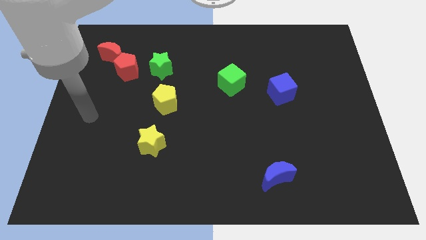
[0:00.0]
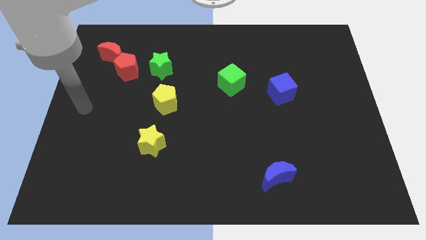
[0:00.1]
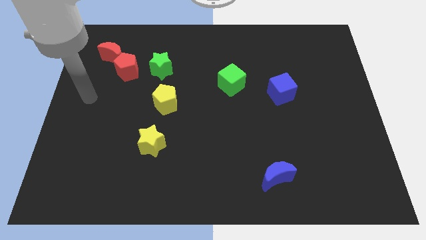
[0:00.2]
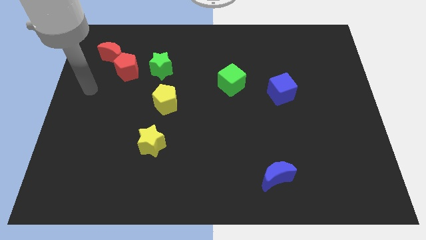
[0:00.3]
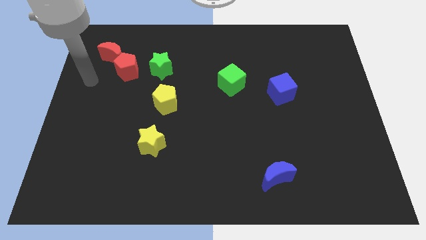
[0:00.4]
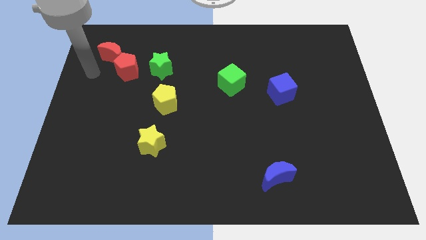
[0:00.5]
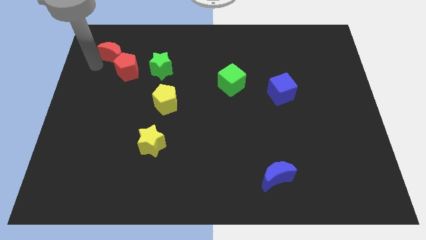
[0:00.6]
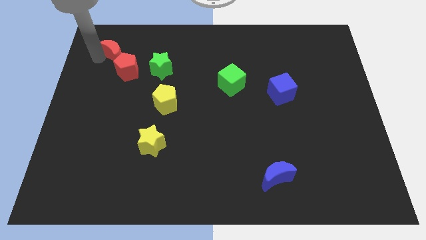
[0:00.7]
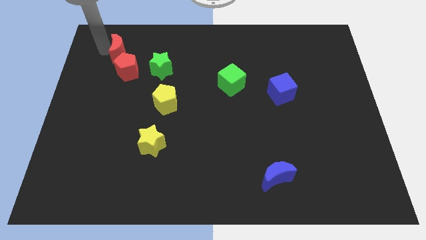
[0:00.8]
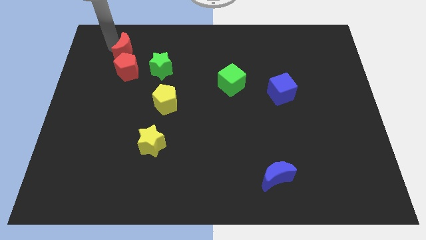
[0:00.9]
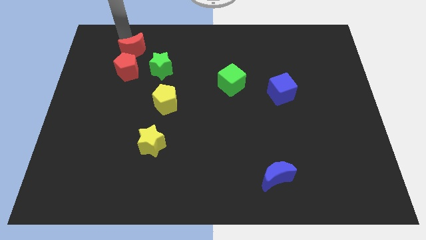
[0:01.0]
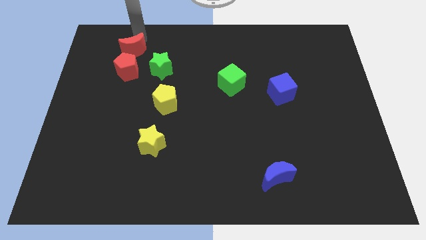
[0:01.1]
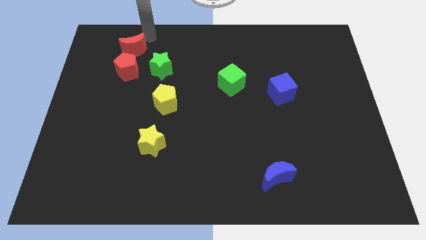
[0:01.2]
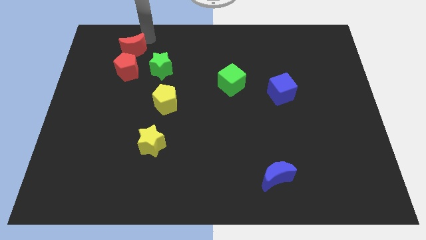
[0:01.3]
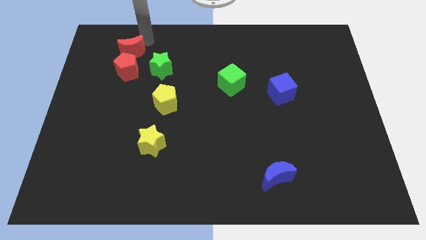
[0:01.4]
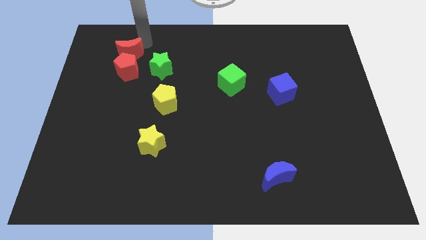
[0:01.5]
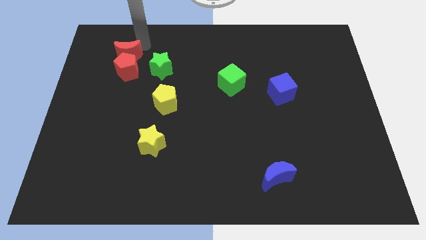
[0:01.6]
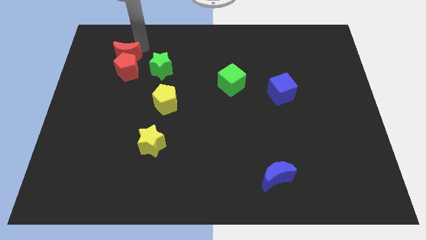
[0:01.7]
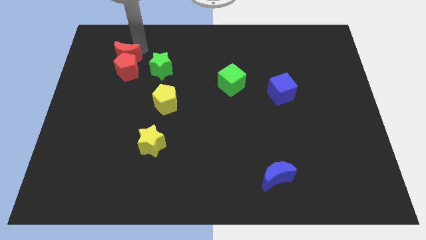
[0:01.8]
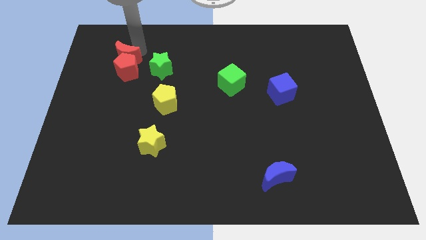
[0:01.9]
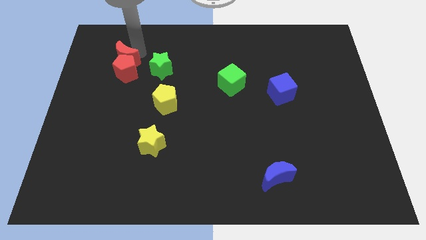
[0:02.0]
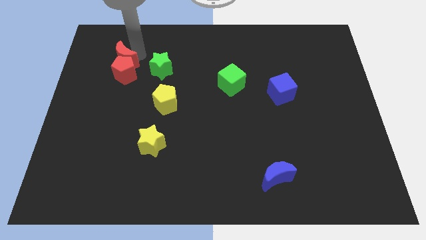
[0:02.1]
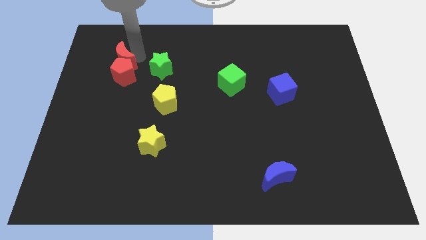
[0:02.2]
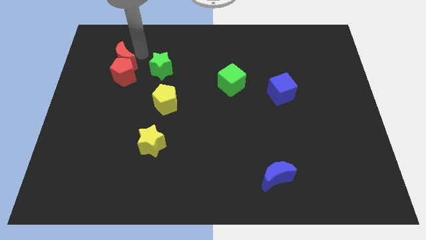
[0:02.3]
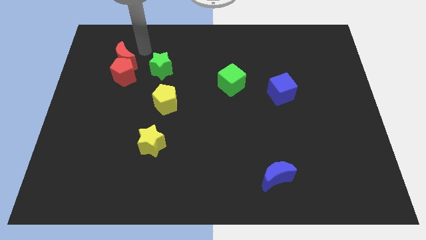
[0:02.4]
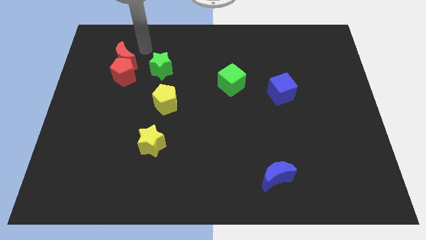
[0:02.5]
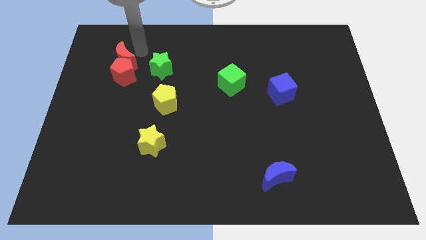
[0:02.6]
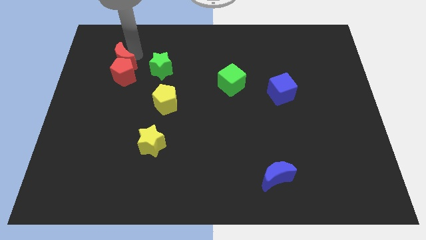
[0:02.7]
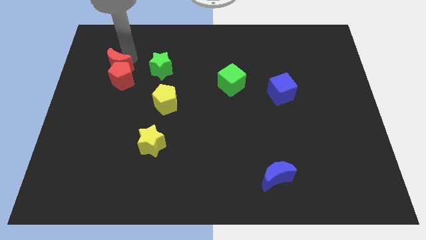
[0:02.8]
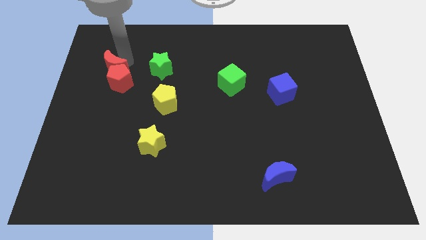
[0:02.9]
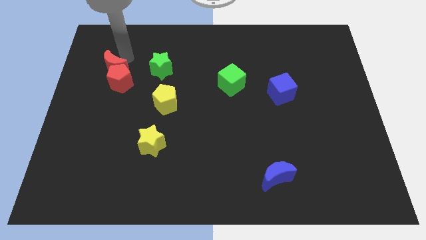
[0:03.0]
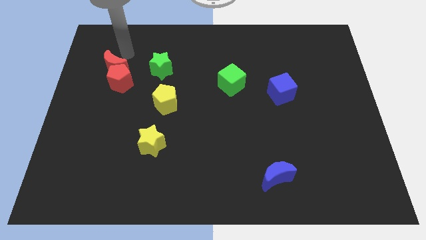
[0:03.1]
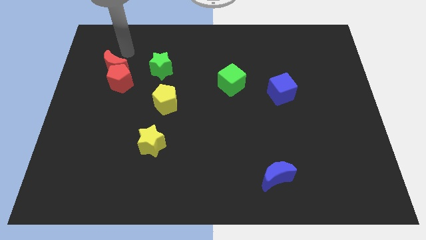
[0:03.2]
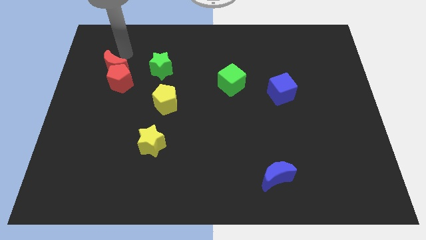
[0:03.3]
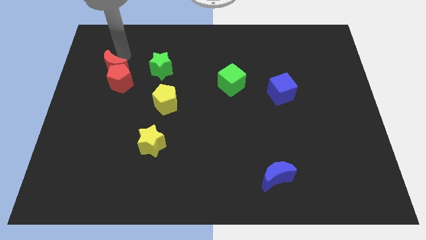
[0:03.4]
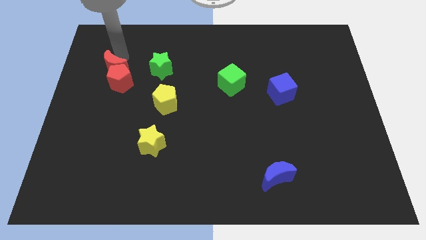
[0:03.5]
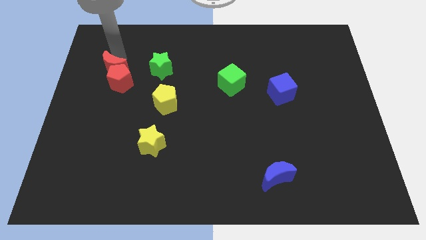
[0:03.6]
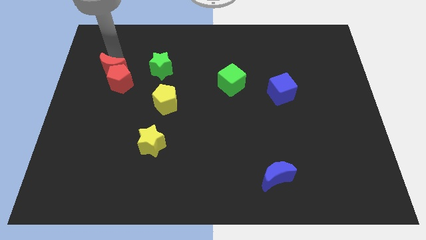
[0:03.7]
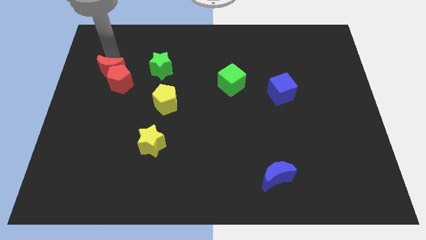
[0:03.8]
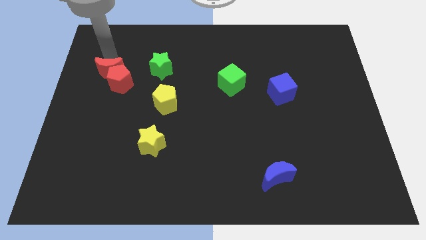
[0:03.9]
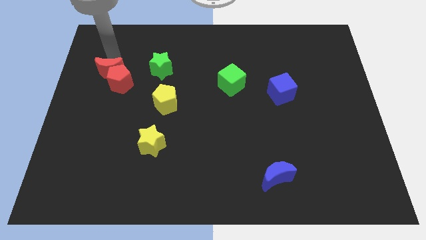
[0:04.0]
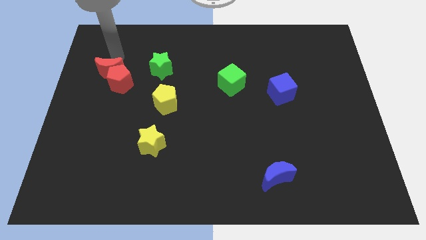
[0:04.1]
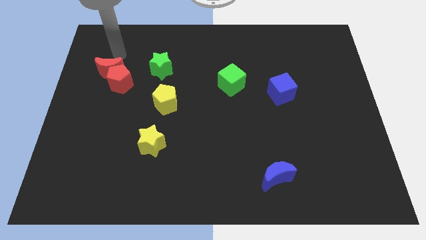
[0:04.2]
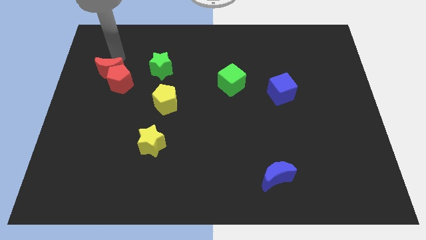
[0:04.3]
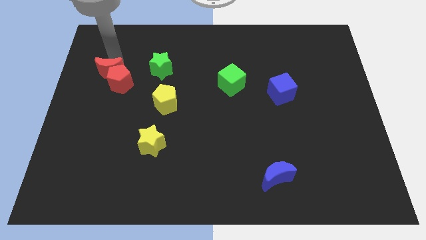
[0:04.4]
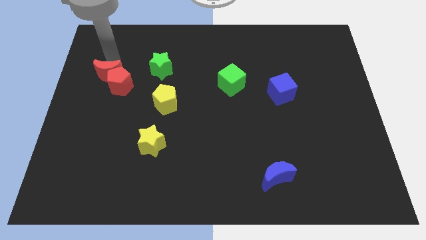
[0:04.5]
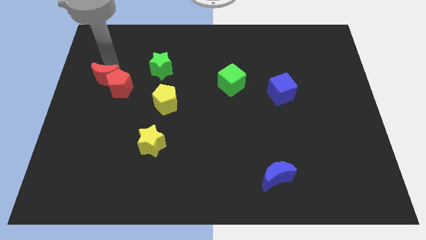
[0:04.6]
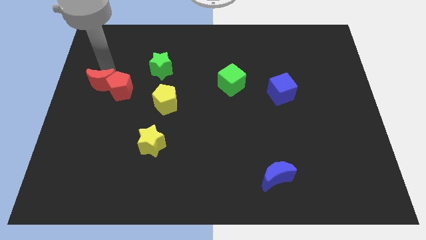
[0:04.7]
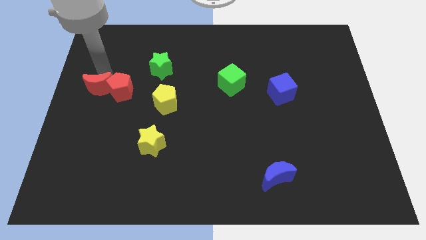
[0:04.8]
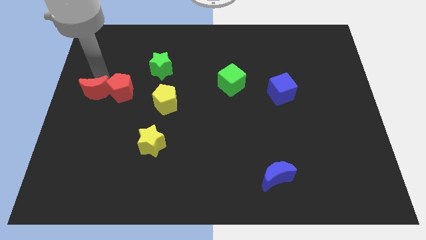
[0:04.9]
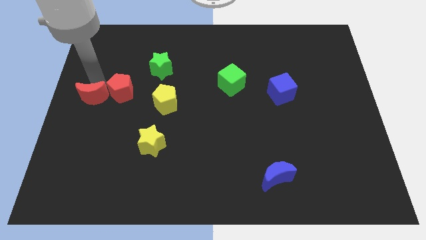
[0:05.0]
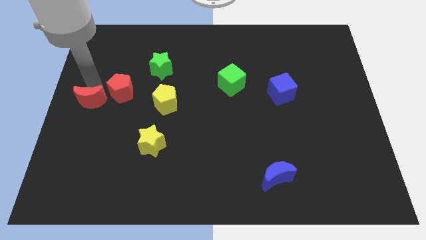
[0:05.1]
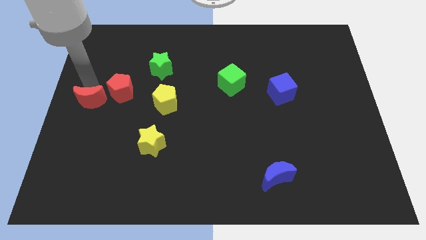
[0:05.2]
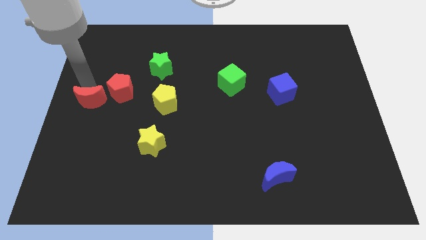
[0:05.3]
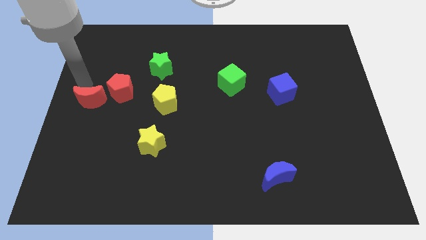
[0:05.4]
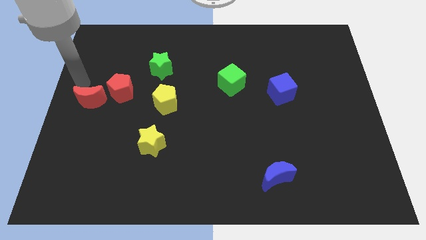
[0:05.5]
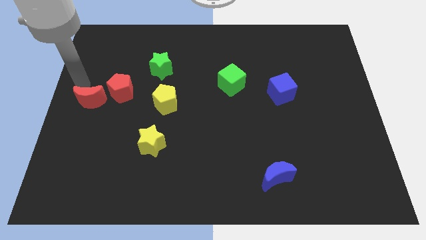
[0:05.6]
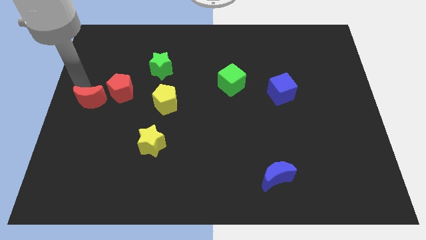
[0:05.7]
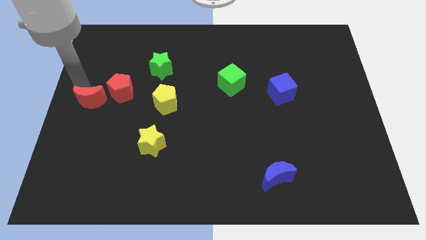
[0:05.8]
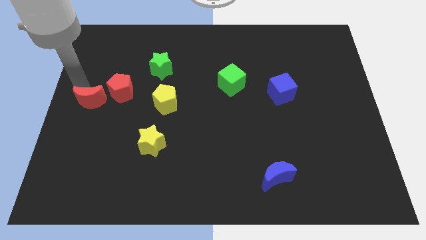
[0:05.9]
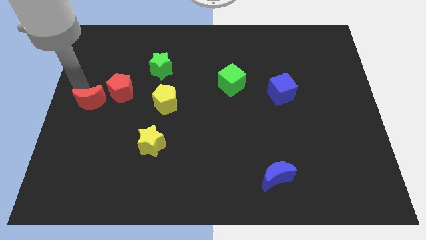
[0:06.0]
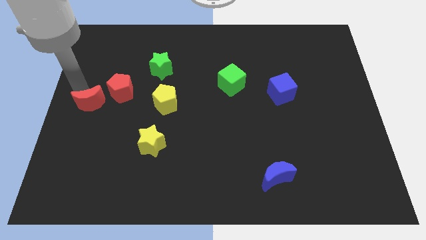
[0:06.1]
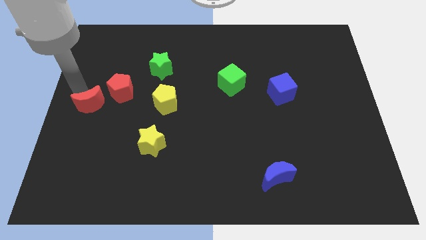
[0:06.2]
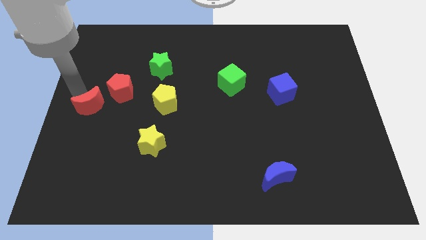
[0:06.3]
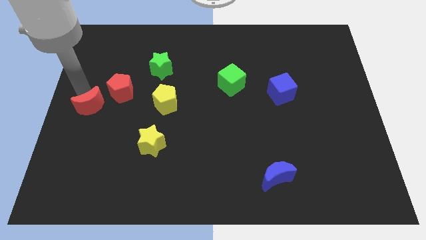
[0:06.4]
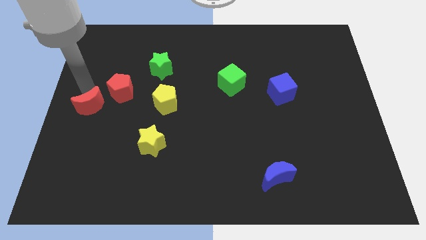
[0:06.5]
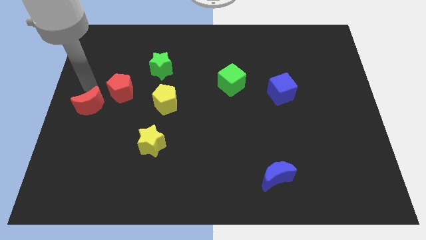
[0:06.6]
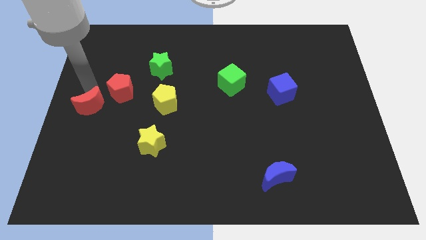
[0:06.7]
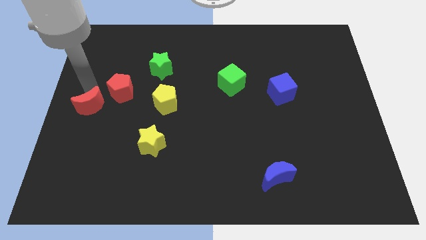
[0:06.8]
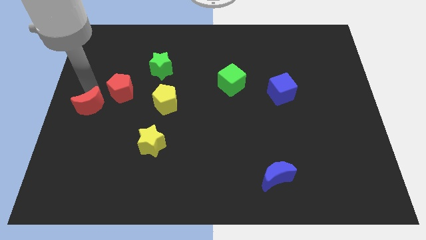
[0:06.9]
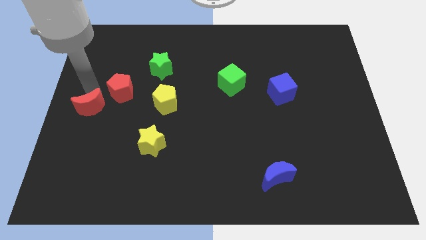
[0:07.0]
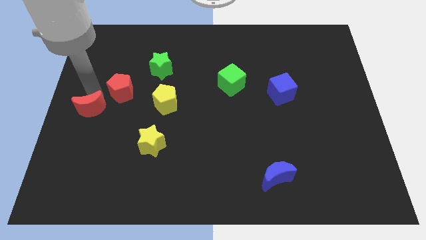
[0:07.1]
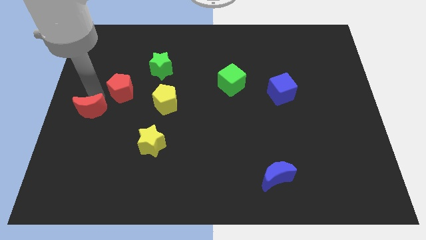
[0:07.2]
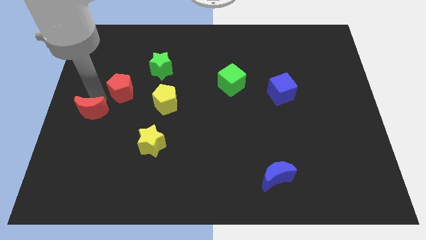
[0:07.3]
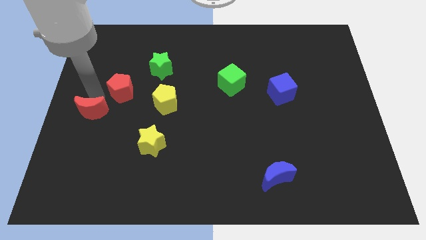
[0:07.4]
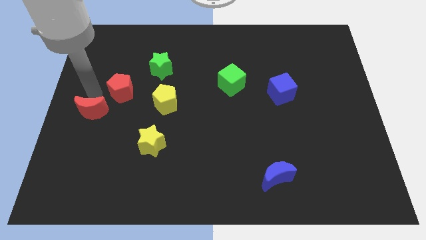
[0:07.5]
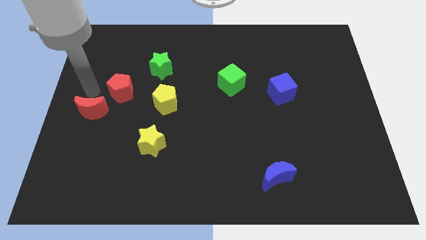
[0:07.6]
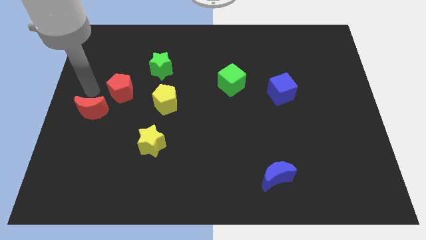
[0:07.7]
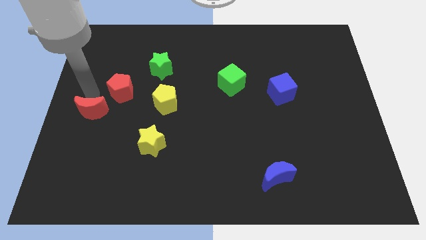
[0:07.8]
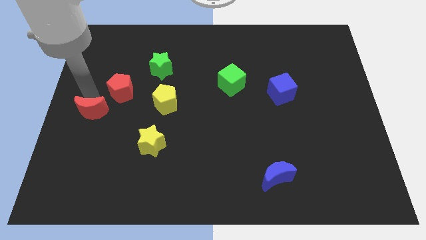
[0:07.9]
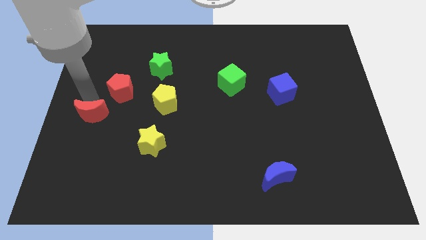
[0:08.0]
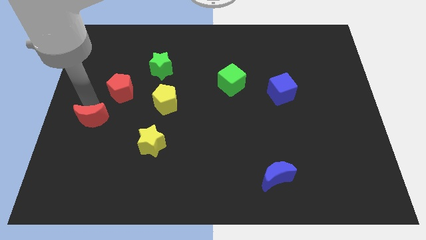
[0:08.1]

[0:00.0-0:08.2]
slide the red moon downwards
